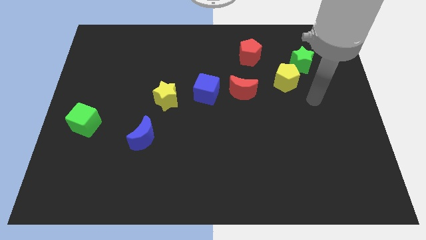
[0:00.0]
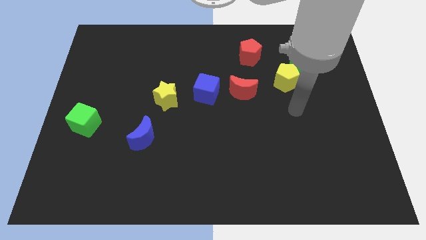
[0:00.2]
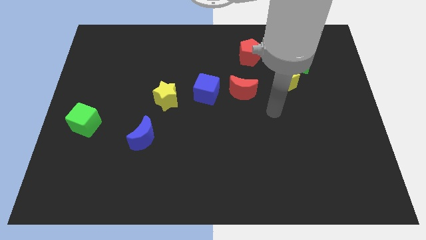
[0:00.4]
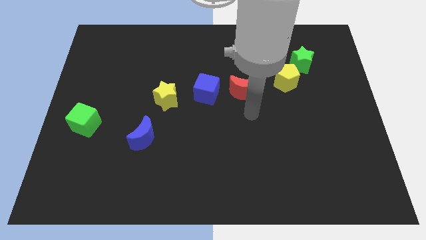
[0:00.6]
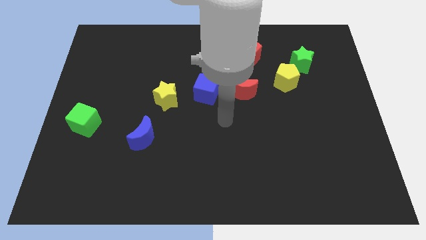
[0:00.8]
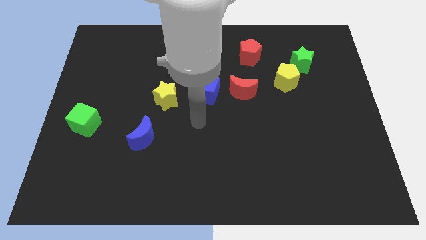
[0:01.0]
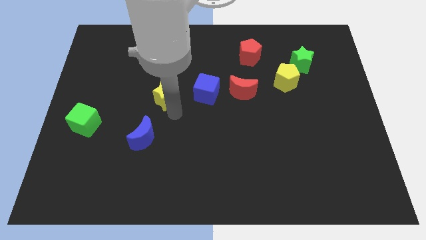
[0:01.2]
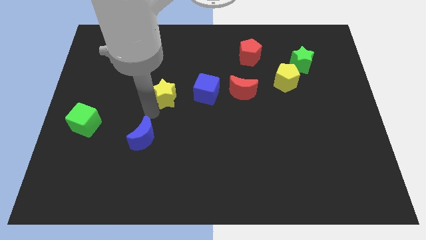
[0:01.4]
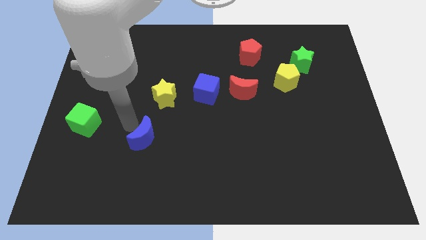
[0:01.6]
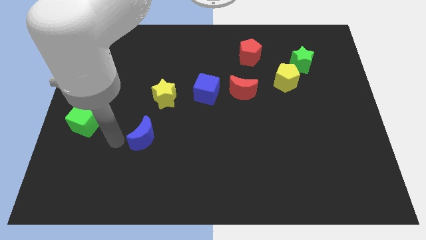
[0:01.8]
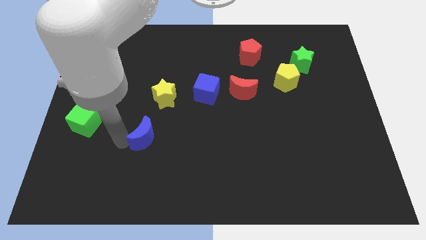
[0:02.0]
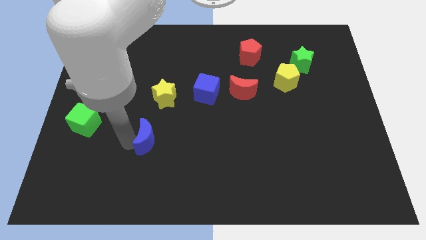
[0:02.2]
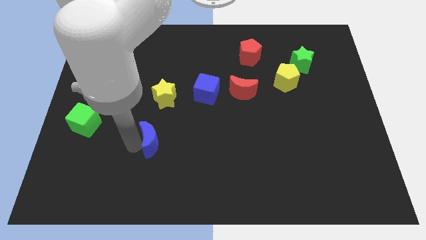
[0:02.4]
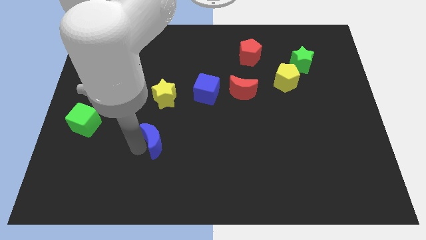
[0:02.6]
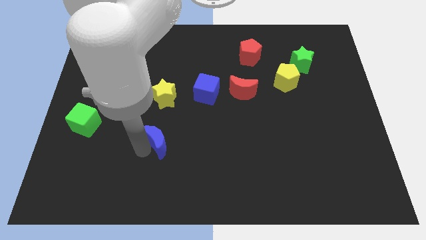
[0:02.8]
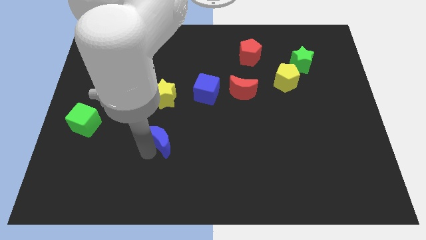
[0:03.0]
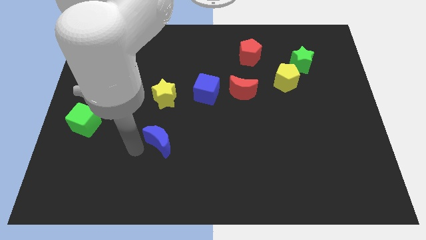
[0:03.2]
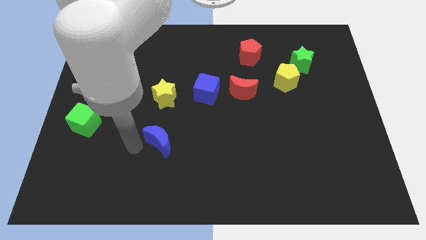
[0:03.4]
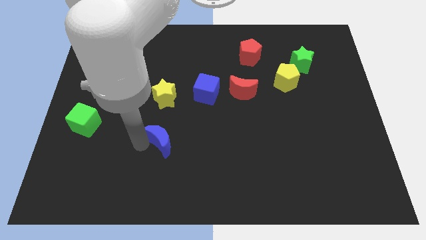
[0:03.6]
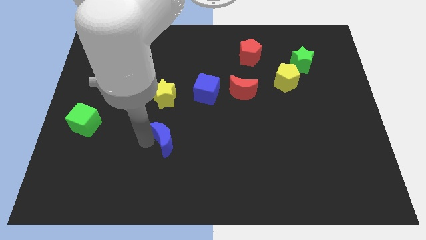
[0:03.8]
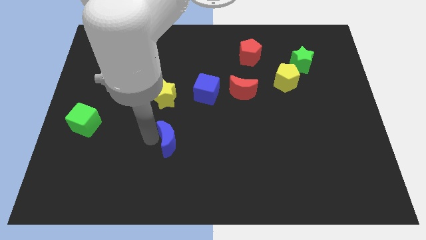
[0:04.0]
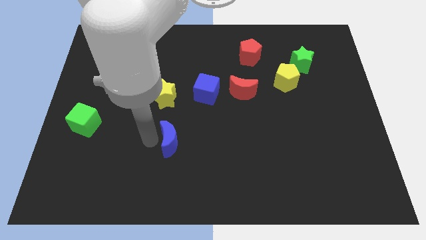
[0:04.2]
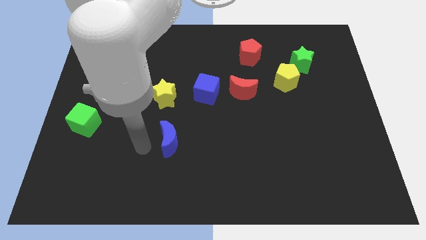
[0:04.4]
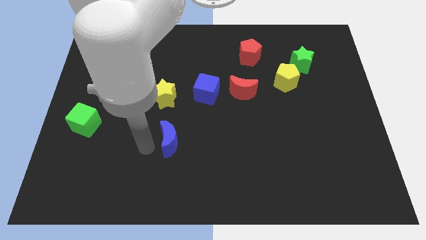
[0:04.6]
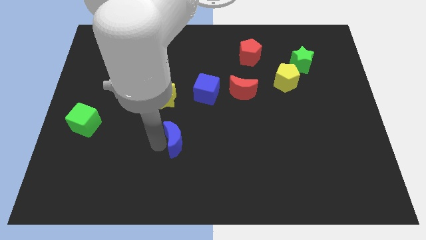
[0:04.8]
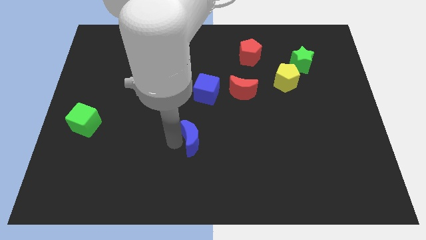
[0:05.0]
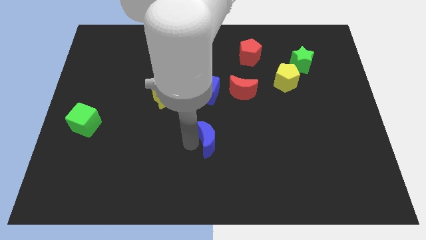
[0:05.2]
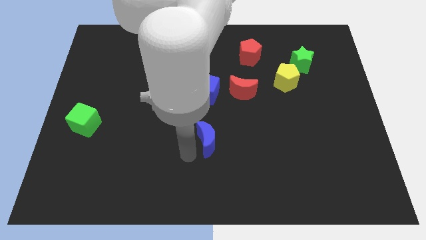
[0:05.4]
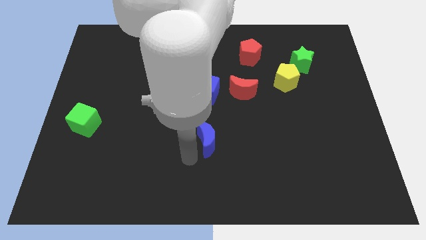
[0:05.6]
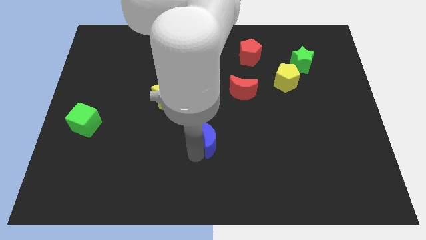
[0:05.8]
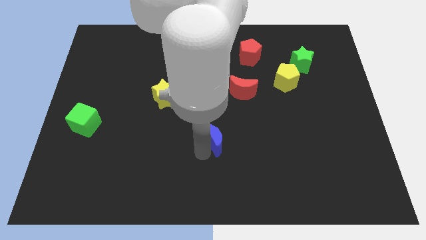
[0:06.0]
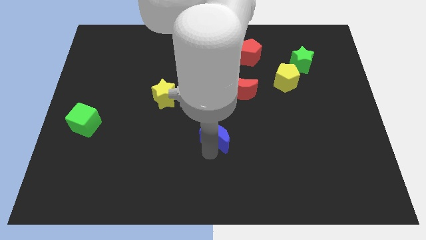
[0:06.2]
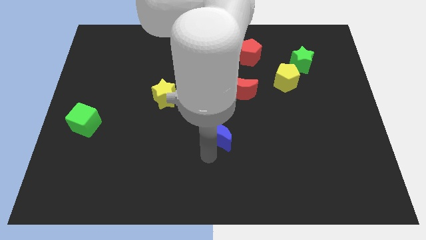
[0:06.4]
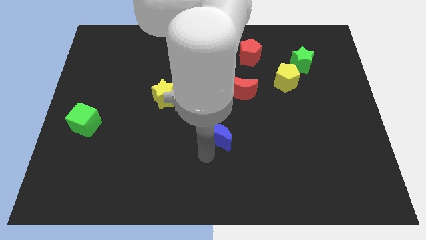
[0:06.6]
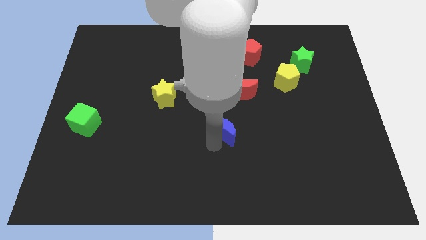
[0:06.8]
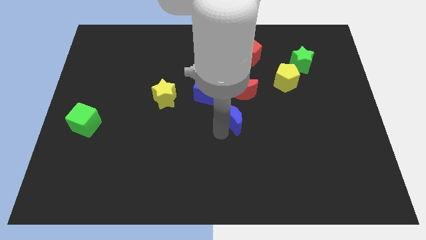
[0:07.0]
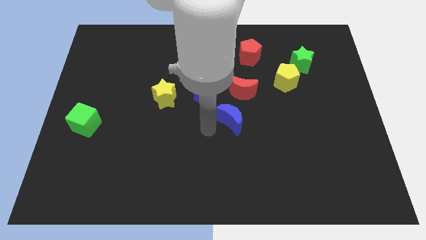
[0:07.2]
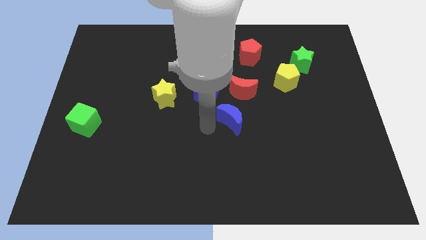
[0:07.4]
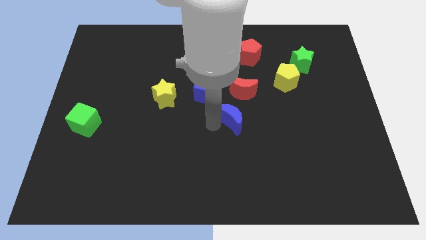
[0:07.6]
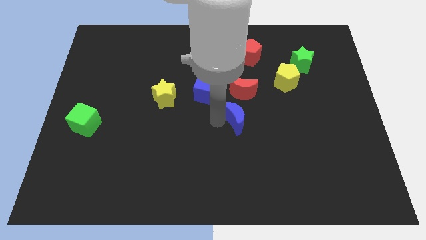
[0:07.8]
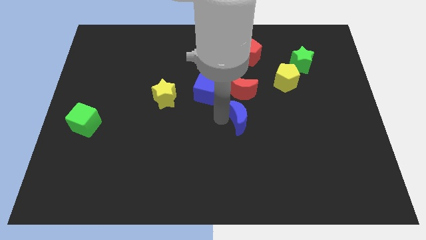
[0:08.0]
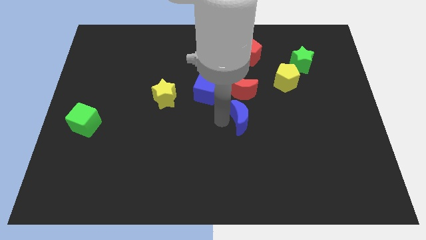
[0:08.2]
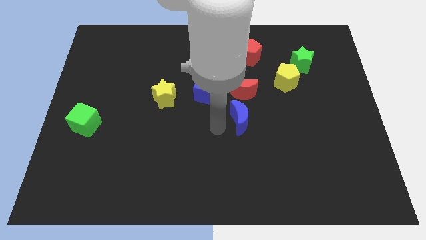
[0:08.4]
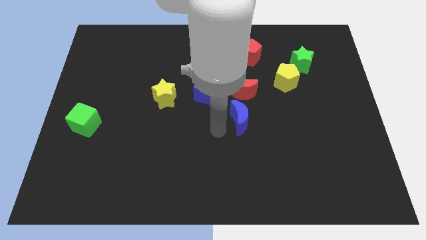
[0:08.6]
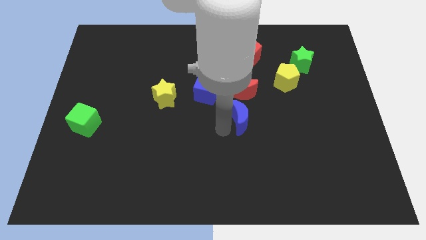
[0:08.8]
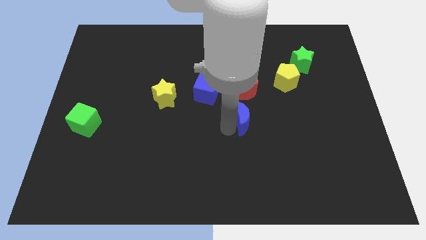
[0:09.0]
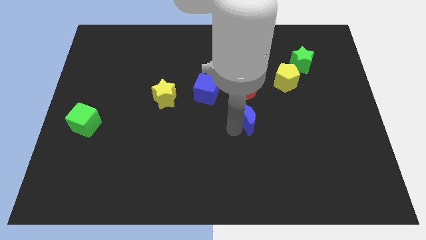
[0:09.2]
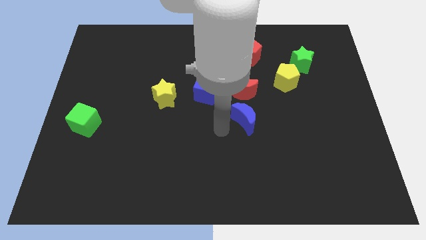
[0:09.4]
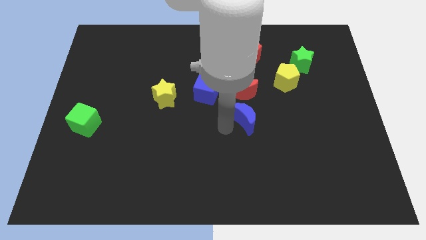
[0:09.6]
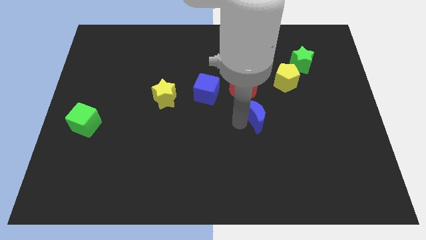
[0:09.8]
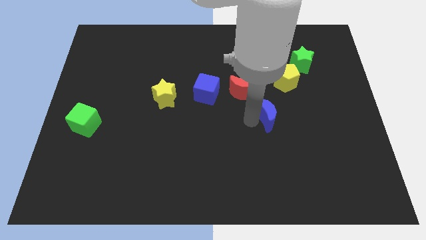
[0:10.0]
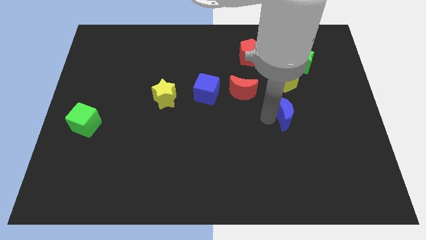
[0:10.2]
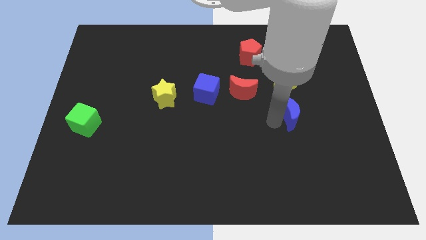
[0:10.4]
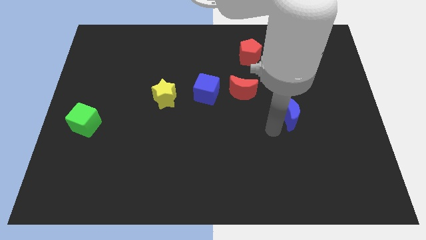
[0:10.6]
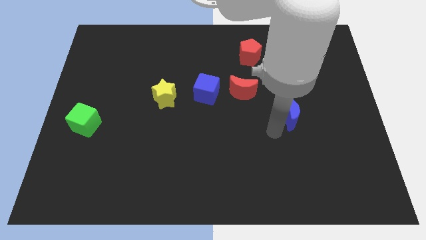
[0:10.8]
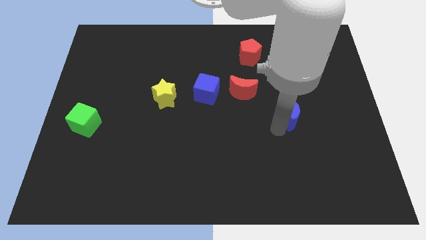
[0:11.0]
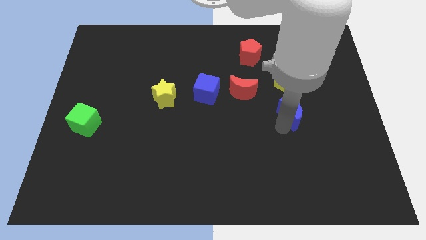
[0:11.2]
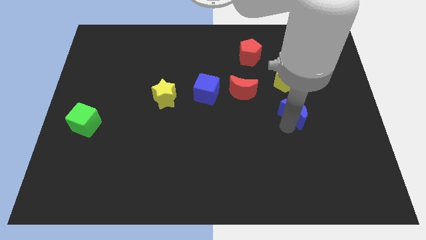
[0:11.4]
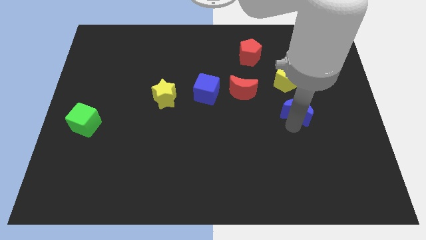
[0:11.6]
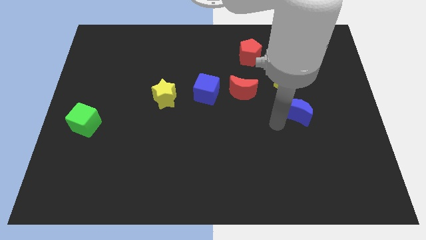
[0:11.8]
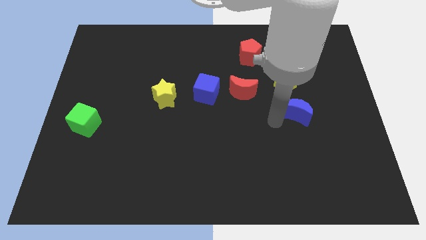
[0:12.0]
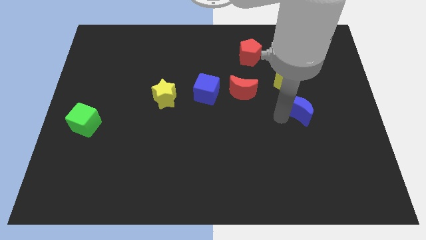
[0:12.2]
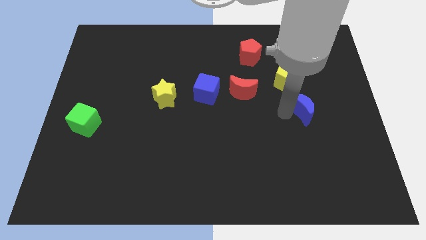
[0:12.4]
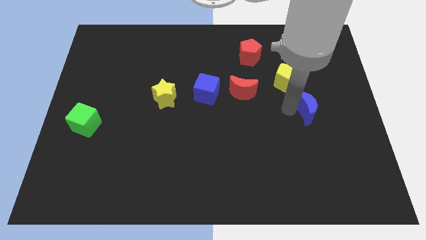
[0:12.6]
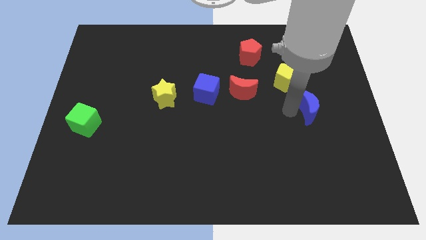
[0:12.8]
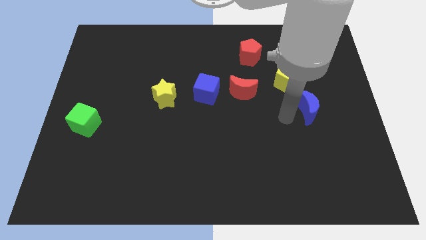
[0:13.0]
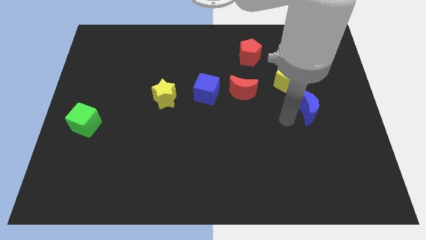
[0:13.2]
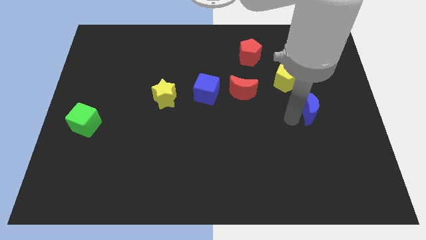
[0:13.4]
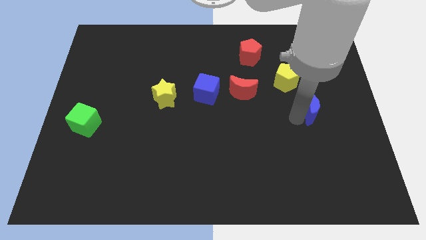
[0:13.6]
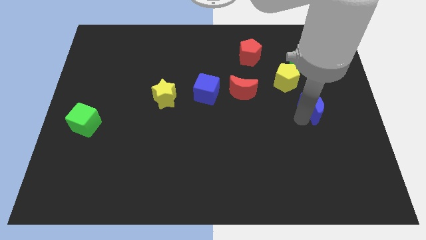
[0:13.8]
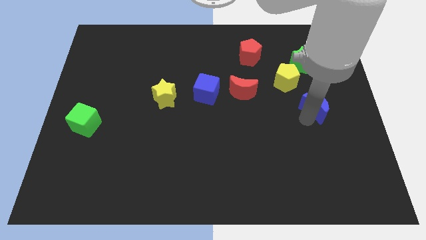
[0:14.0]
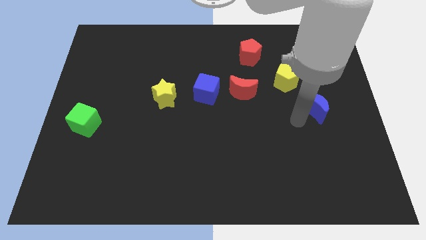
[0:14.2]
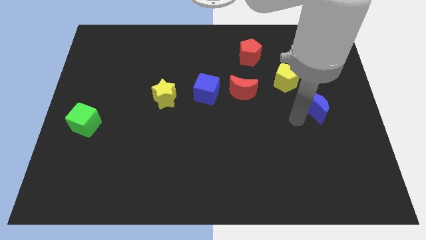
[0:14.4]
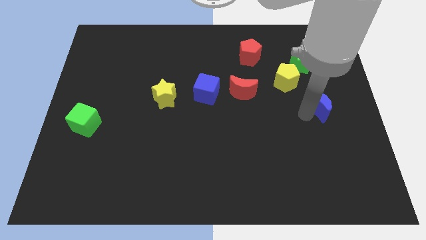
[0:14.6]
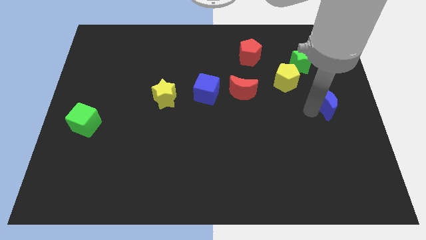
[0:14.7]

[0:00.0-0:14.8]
slide the blue moon to the center right

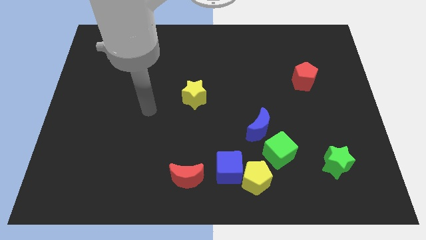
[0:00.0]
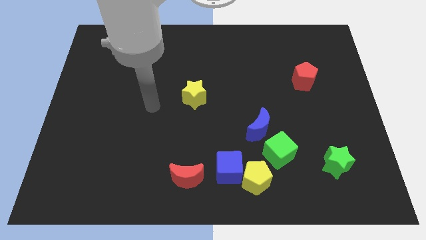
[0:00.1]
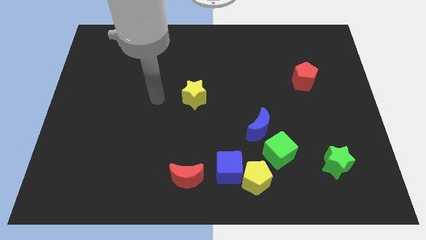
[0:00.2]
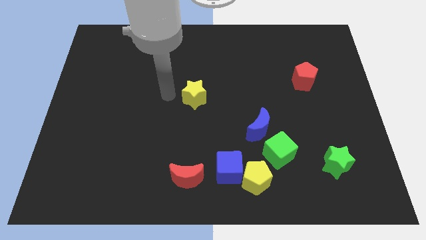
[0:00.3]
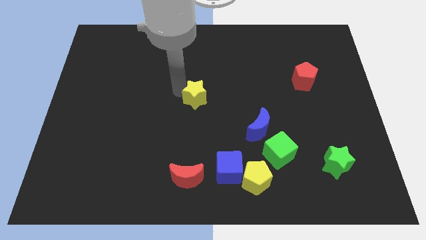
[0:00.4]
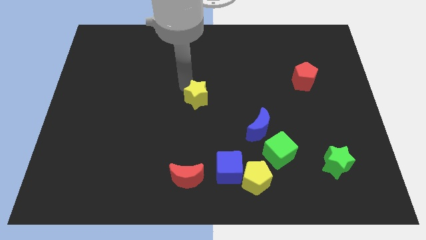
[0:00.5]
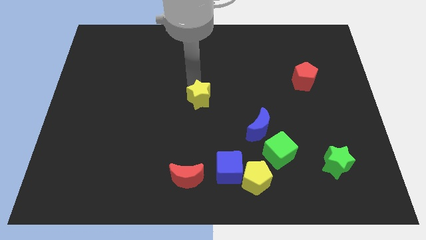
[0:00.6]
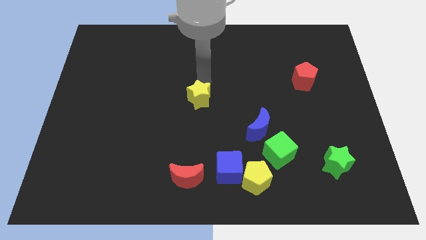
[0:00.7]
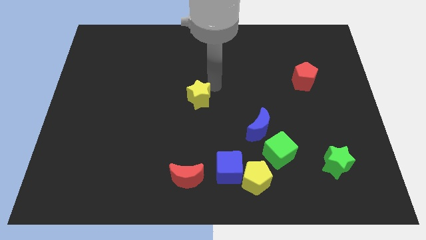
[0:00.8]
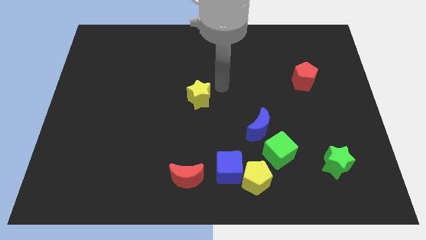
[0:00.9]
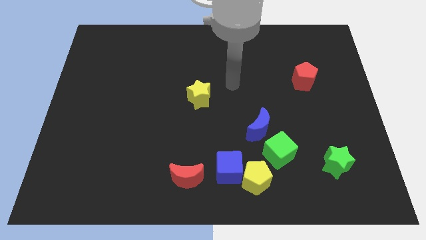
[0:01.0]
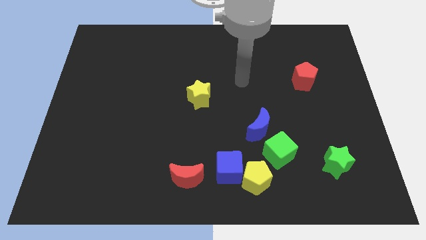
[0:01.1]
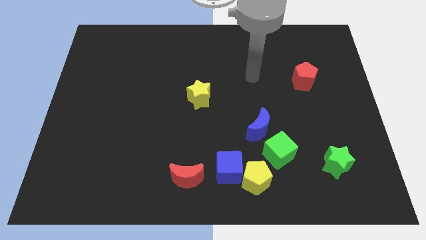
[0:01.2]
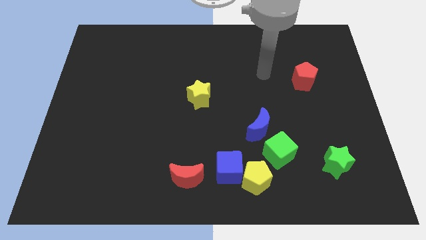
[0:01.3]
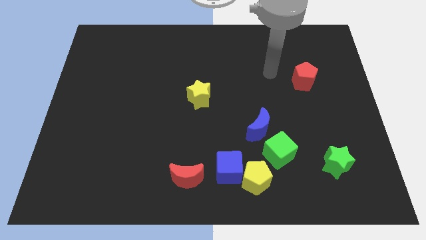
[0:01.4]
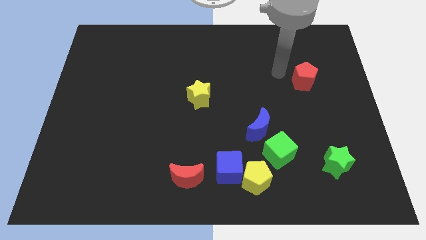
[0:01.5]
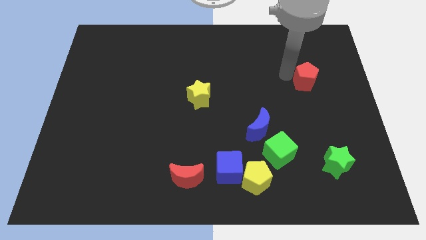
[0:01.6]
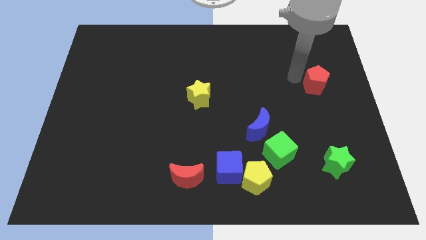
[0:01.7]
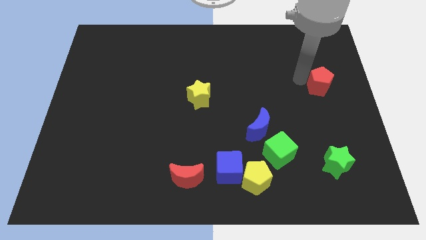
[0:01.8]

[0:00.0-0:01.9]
move the red pentagon to the right side of the board
